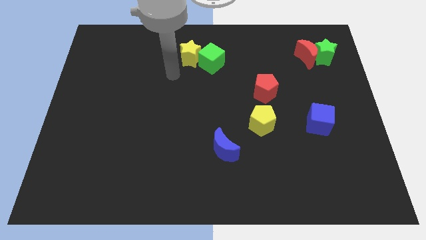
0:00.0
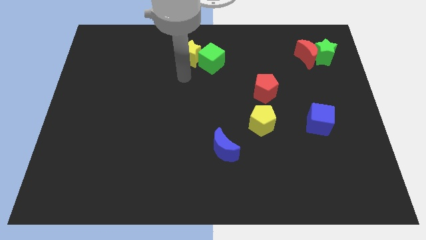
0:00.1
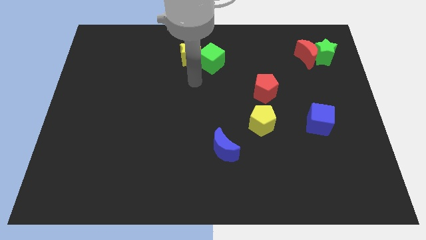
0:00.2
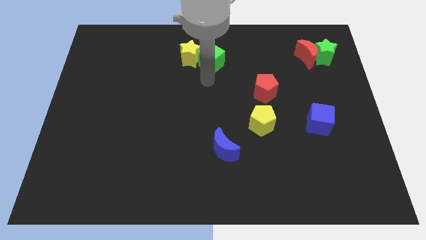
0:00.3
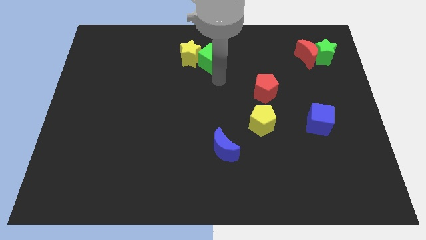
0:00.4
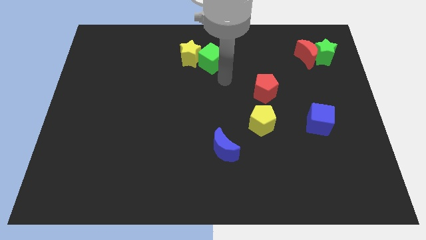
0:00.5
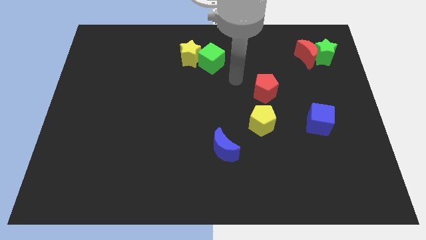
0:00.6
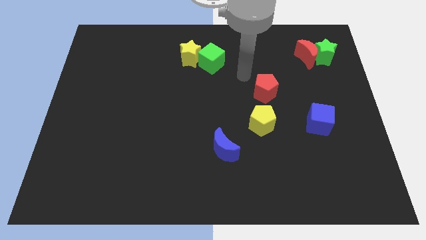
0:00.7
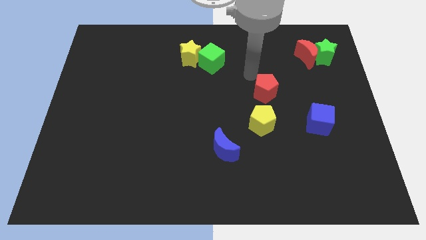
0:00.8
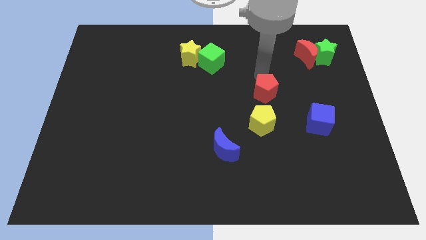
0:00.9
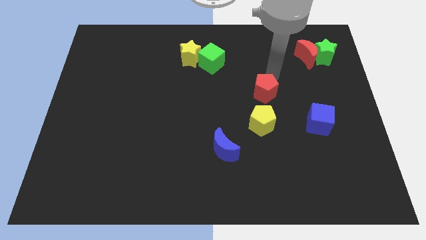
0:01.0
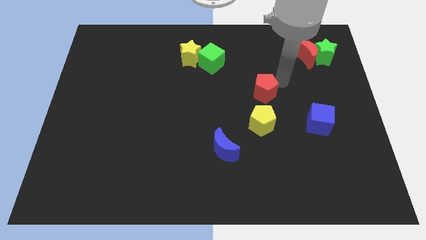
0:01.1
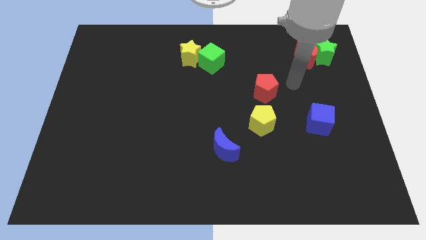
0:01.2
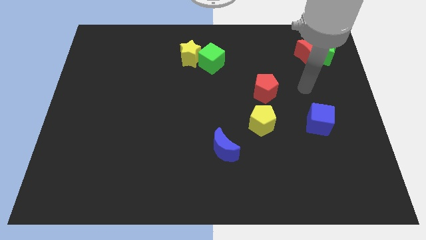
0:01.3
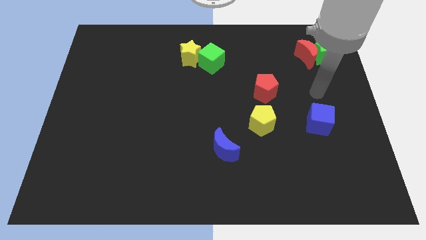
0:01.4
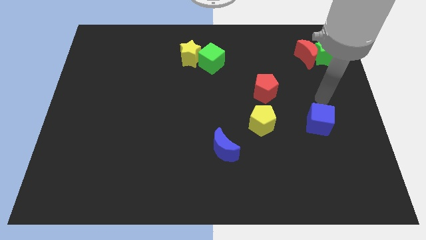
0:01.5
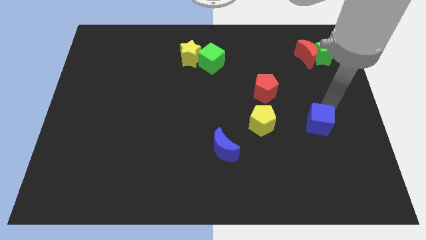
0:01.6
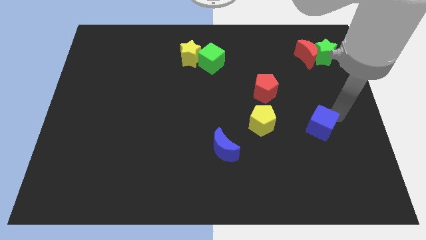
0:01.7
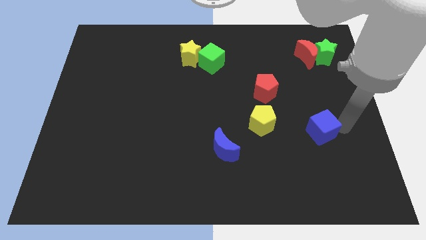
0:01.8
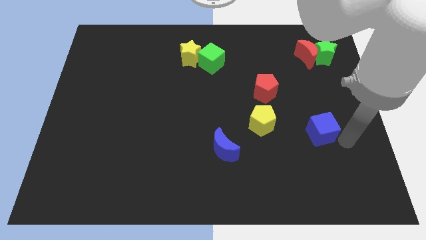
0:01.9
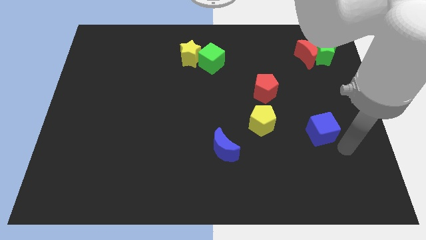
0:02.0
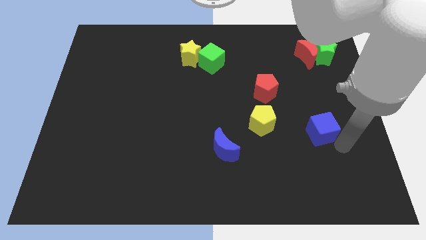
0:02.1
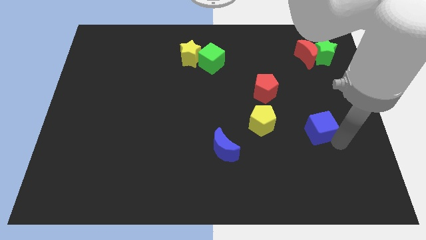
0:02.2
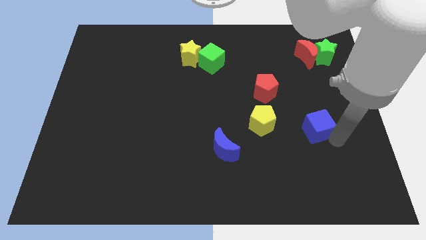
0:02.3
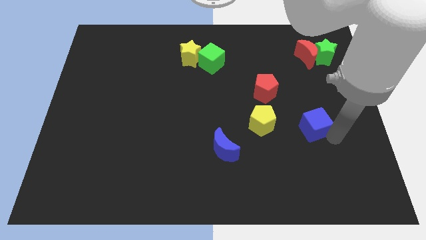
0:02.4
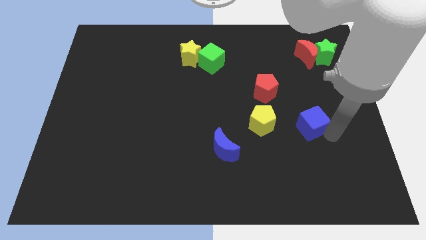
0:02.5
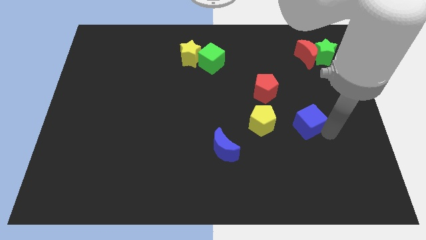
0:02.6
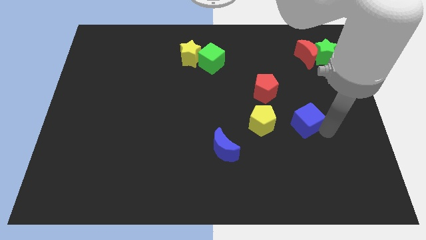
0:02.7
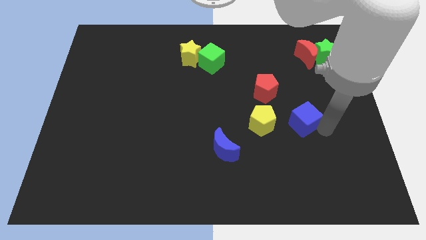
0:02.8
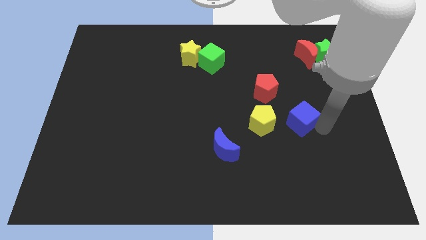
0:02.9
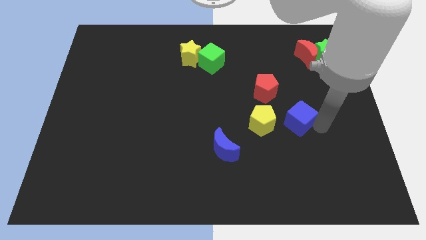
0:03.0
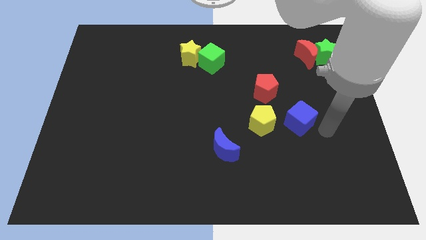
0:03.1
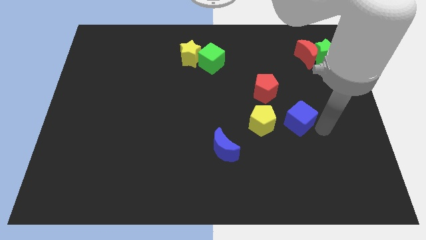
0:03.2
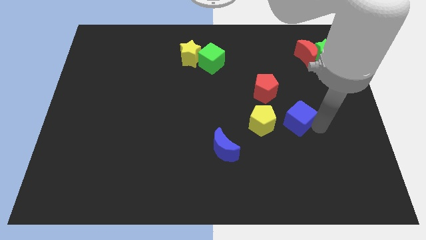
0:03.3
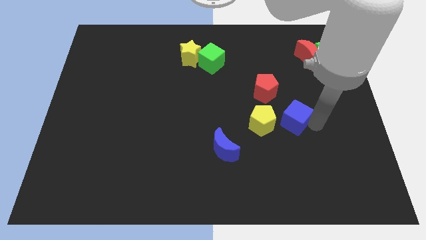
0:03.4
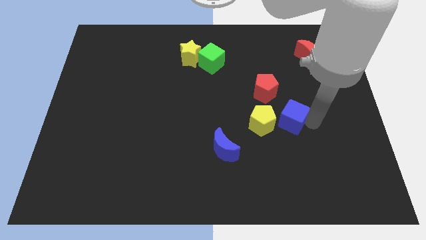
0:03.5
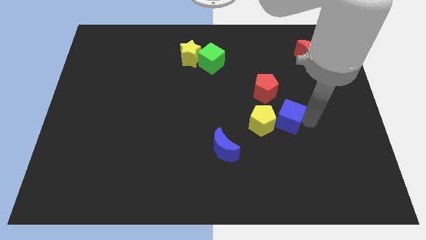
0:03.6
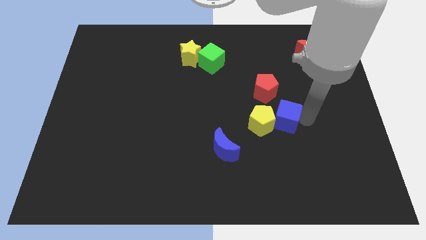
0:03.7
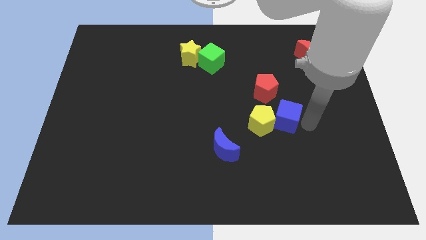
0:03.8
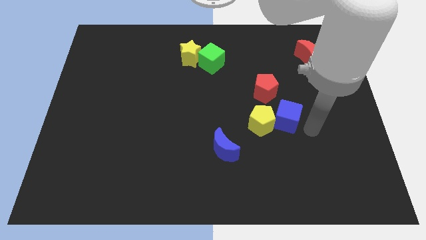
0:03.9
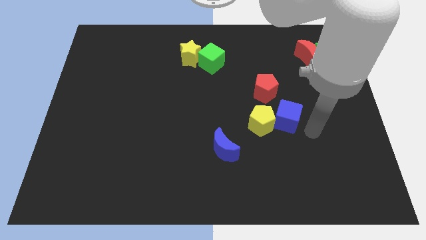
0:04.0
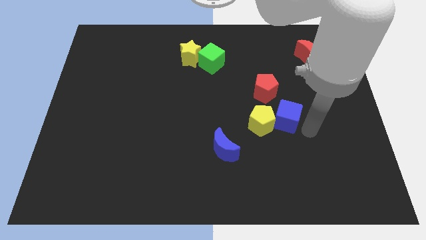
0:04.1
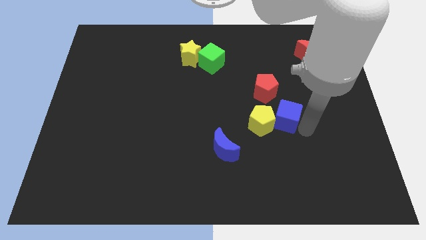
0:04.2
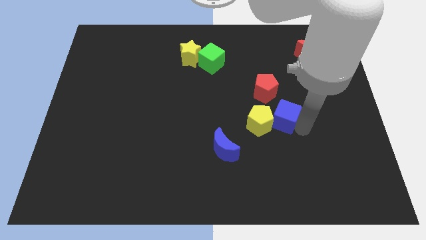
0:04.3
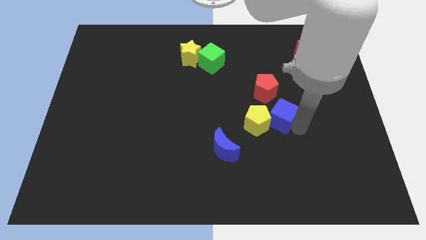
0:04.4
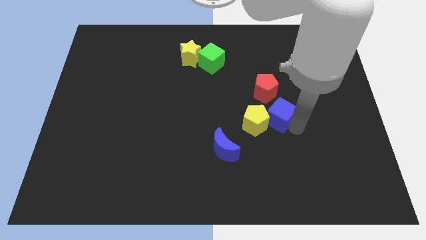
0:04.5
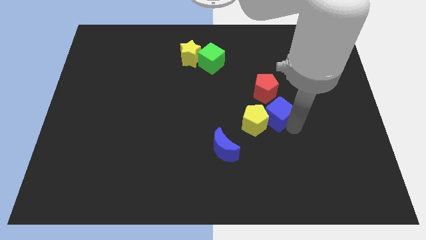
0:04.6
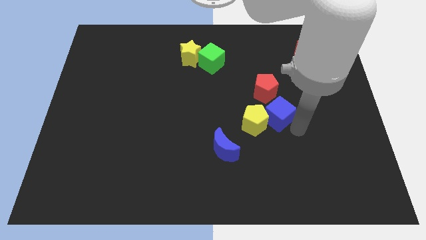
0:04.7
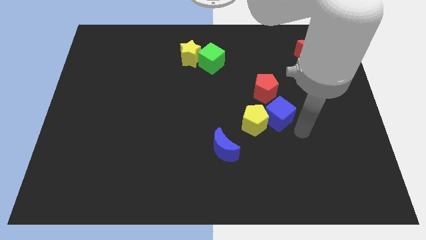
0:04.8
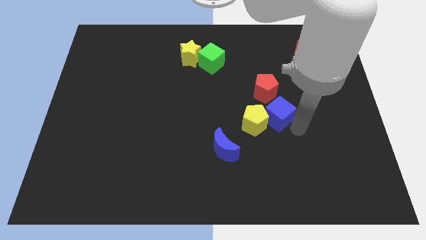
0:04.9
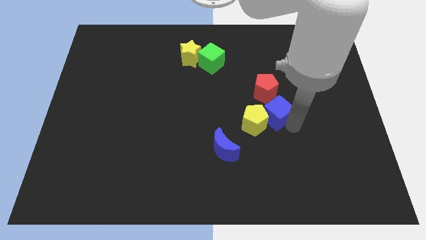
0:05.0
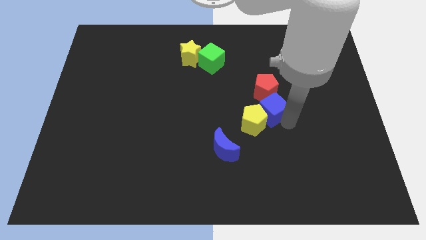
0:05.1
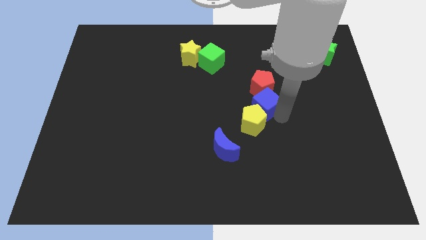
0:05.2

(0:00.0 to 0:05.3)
slide the blue cube to the middle

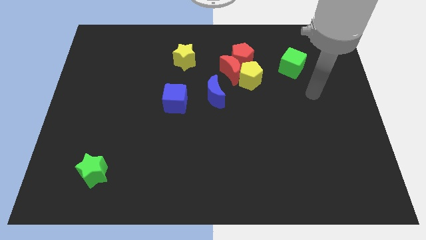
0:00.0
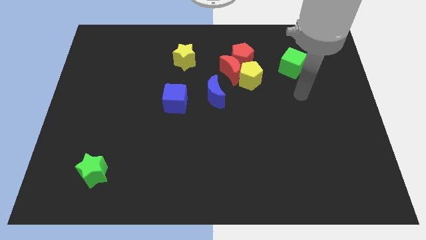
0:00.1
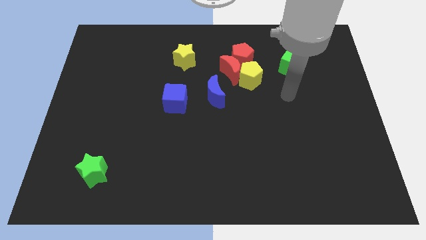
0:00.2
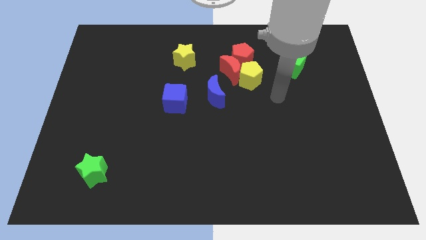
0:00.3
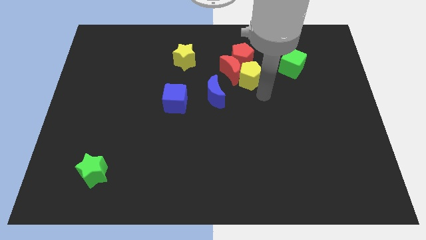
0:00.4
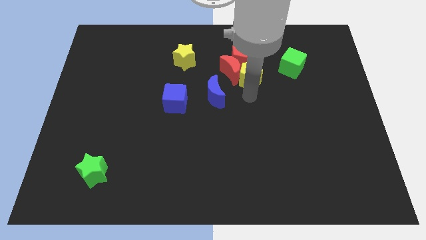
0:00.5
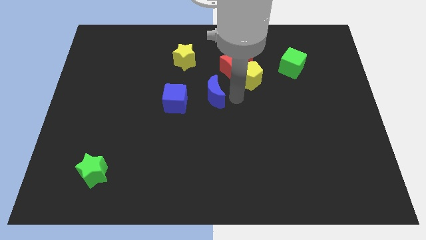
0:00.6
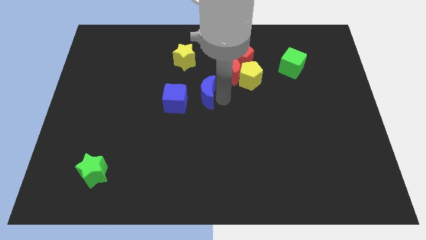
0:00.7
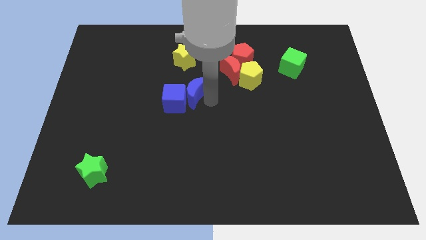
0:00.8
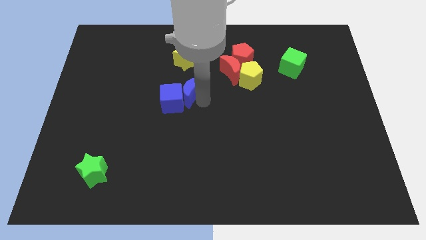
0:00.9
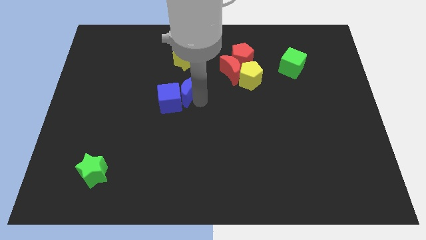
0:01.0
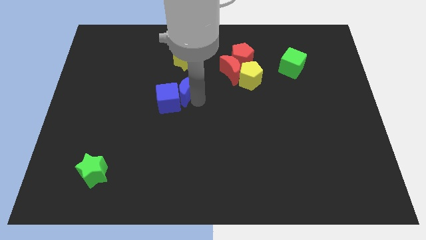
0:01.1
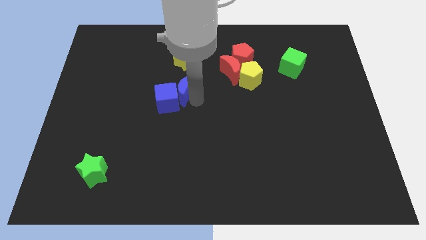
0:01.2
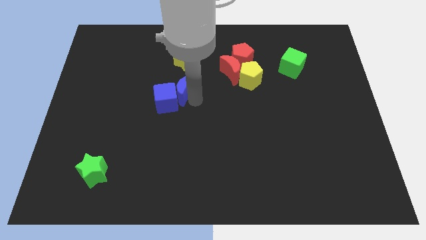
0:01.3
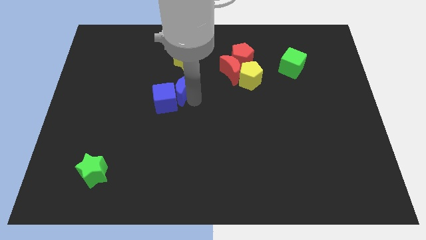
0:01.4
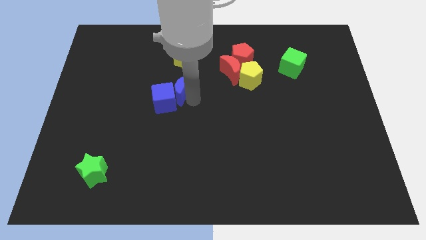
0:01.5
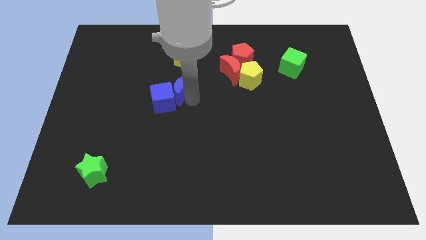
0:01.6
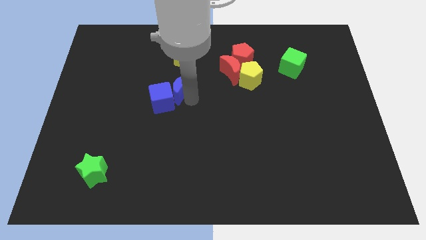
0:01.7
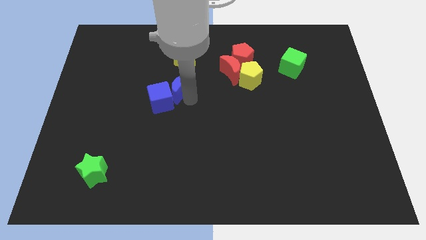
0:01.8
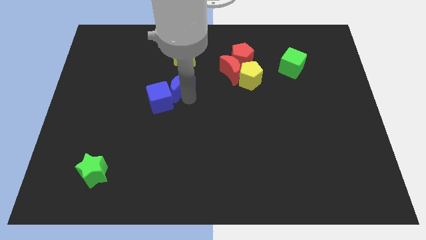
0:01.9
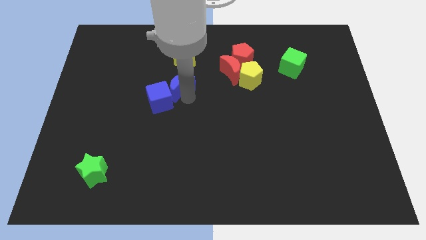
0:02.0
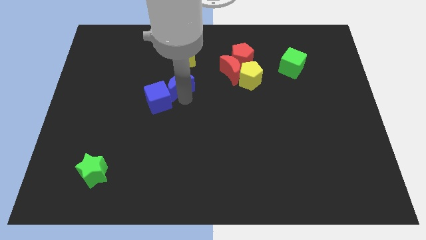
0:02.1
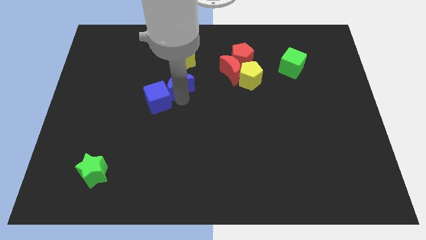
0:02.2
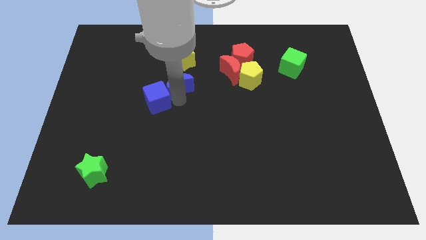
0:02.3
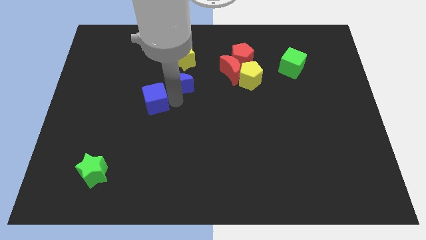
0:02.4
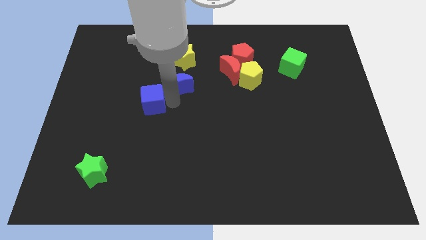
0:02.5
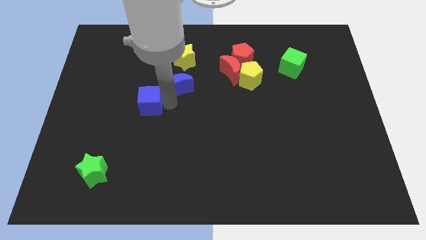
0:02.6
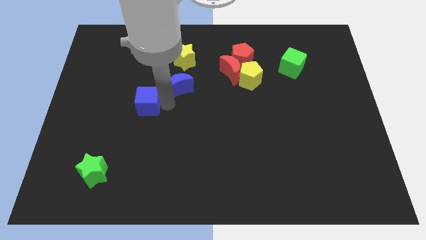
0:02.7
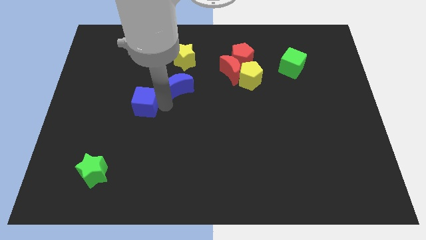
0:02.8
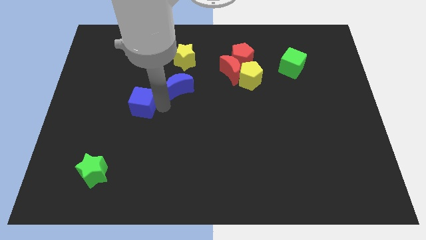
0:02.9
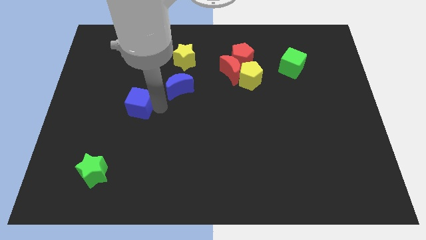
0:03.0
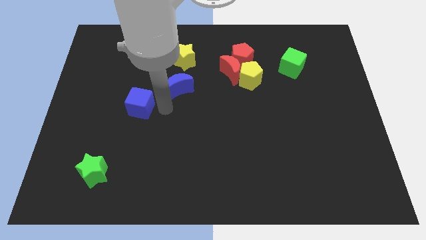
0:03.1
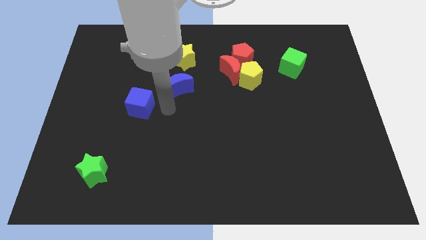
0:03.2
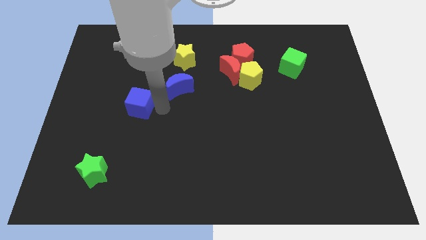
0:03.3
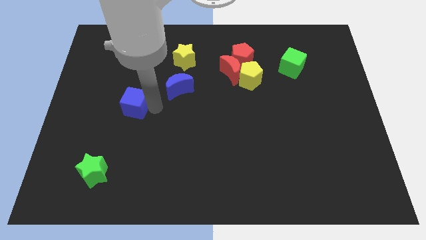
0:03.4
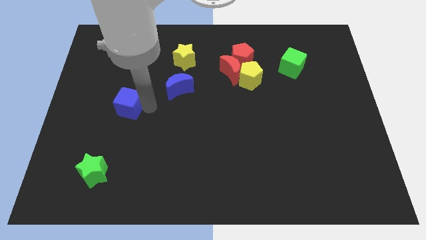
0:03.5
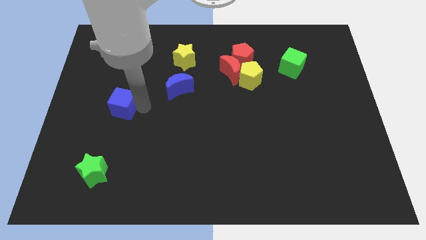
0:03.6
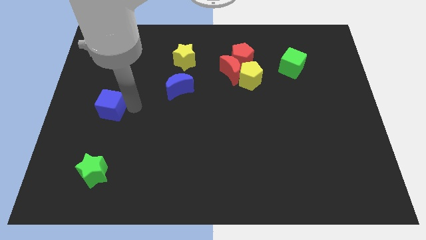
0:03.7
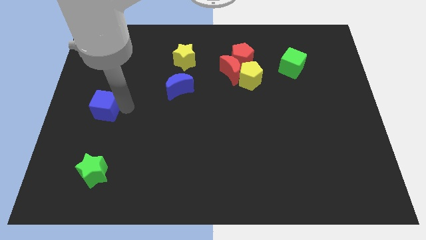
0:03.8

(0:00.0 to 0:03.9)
slide the blue cube to the center left
